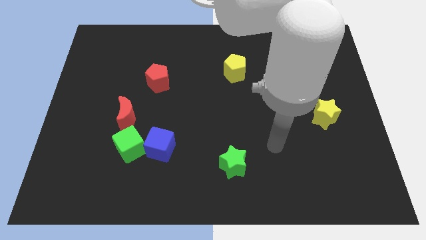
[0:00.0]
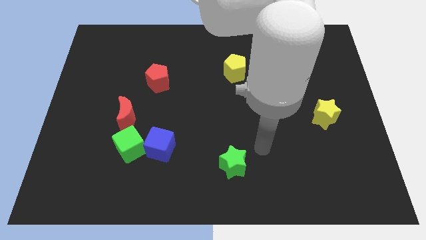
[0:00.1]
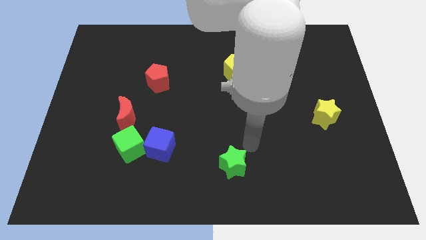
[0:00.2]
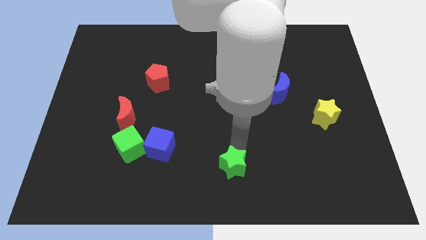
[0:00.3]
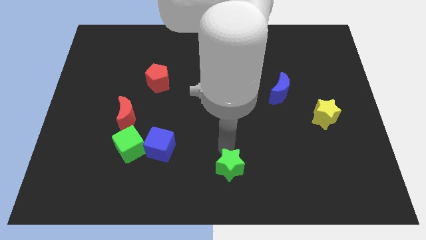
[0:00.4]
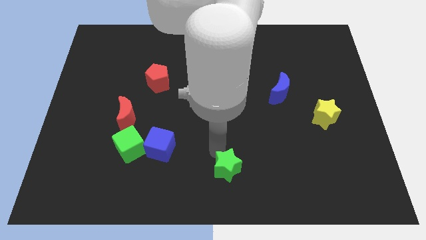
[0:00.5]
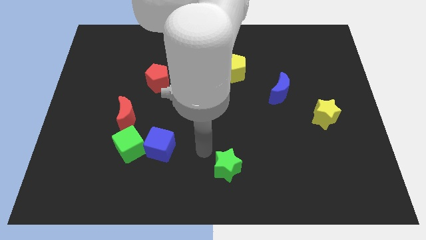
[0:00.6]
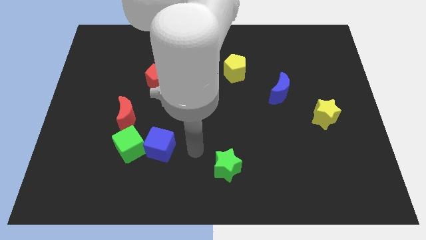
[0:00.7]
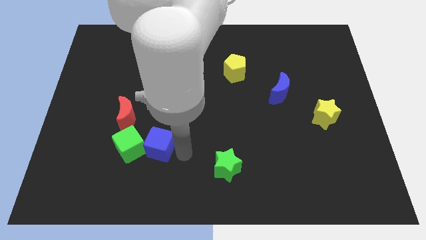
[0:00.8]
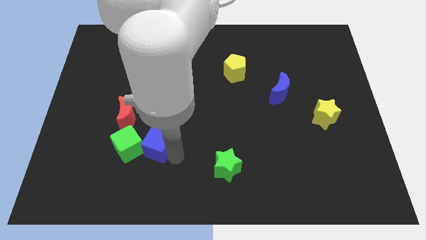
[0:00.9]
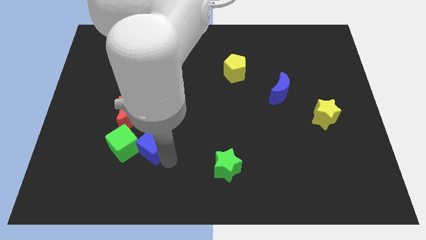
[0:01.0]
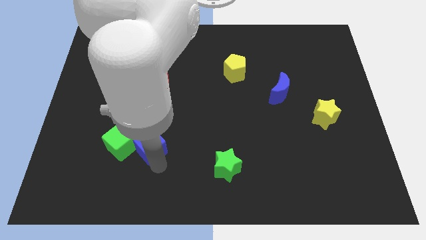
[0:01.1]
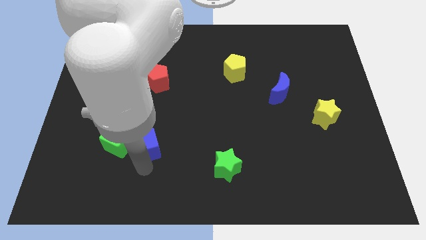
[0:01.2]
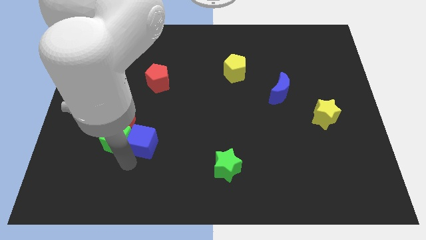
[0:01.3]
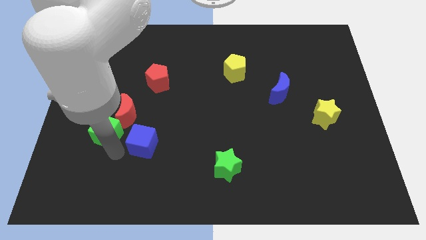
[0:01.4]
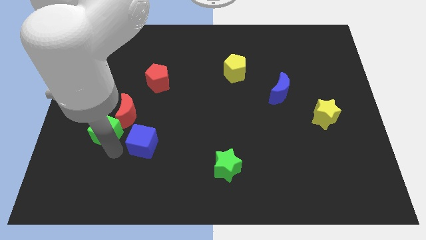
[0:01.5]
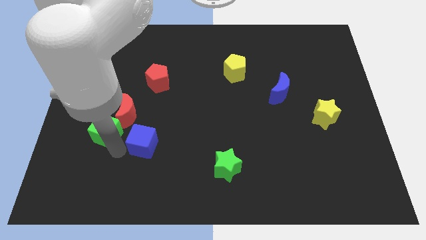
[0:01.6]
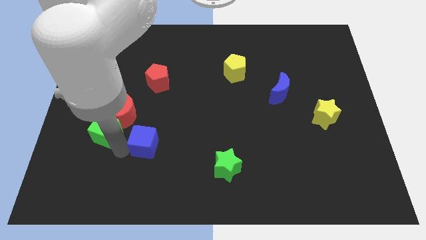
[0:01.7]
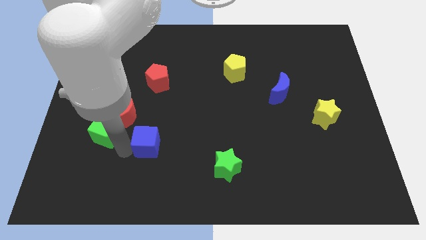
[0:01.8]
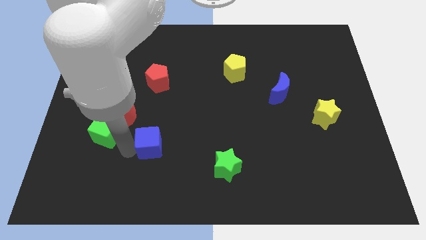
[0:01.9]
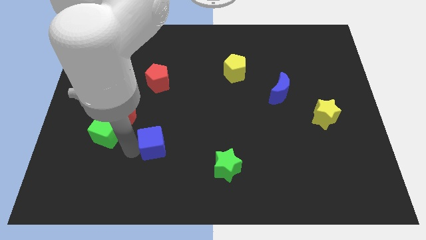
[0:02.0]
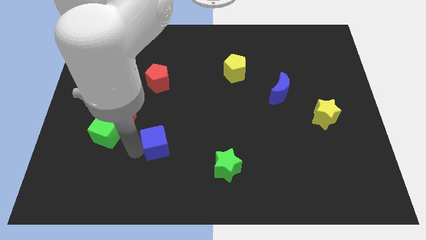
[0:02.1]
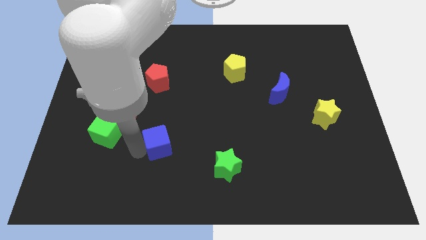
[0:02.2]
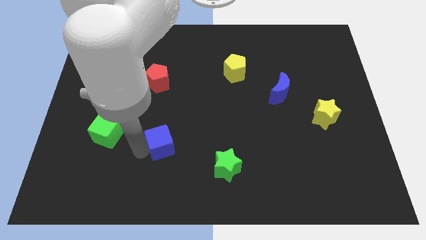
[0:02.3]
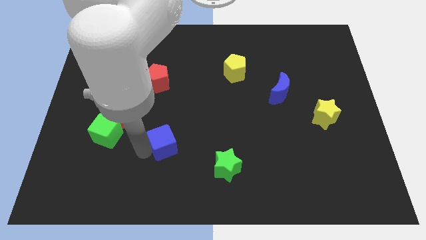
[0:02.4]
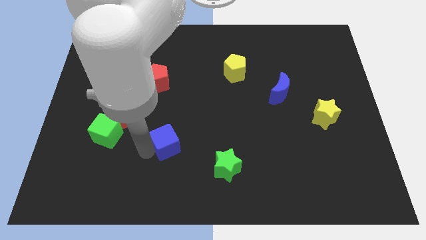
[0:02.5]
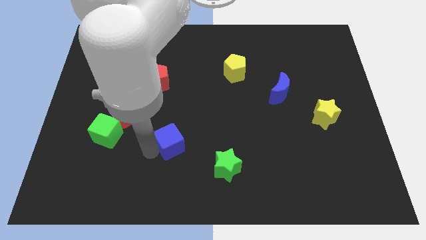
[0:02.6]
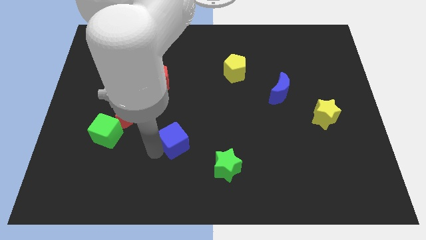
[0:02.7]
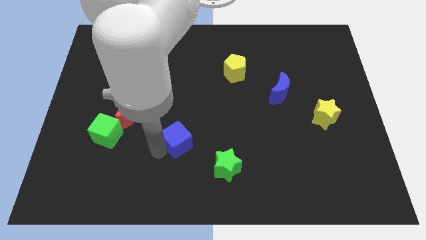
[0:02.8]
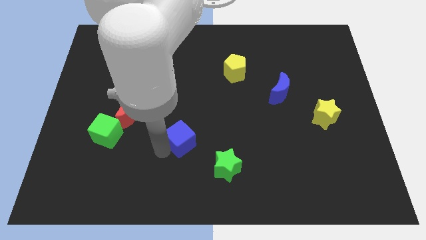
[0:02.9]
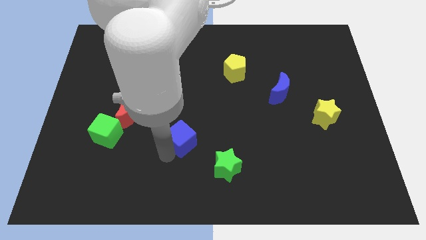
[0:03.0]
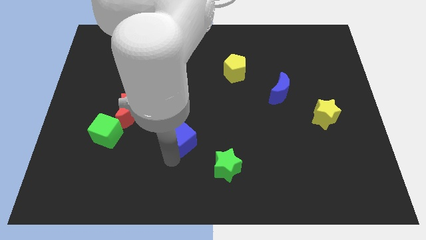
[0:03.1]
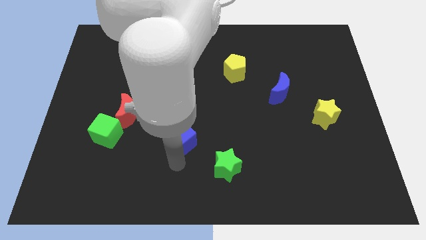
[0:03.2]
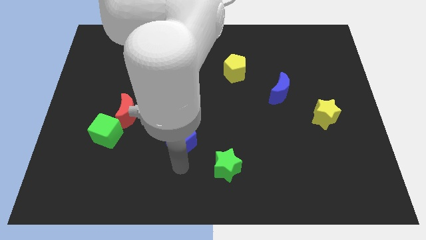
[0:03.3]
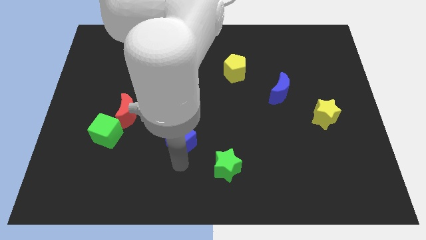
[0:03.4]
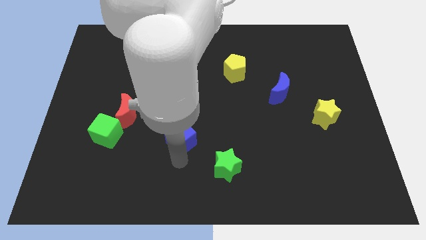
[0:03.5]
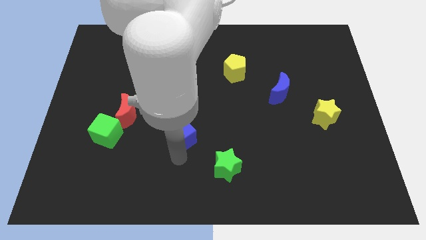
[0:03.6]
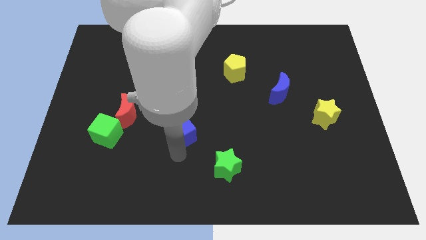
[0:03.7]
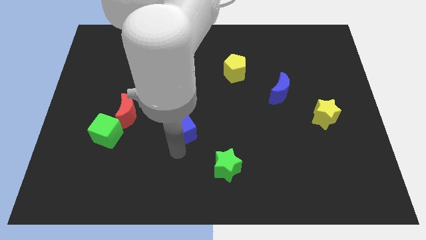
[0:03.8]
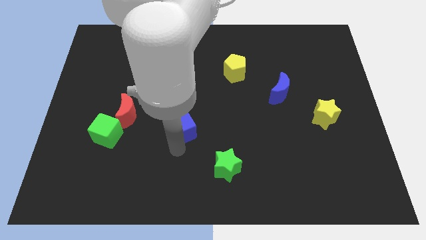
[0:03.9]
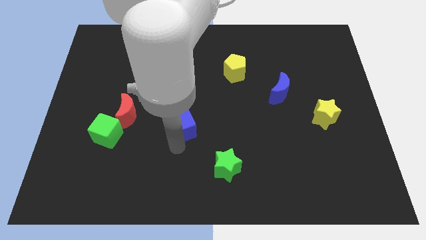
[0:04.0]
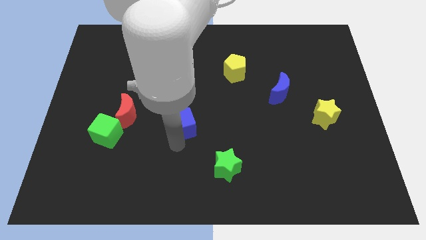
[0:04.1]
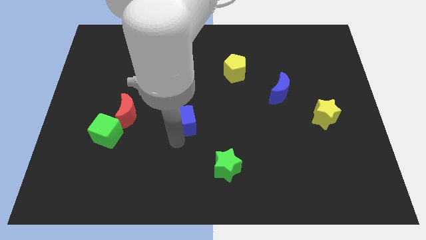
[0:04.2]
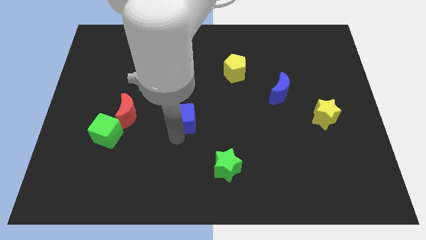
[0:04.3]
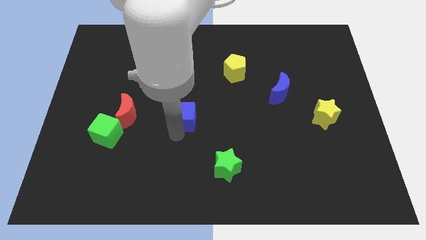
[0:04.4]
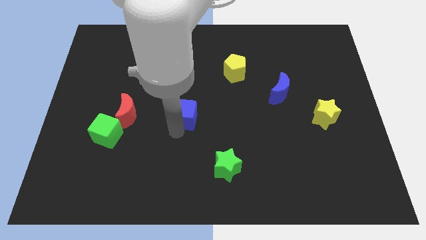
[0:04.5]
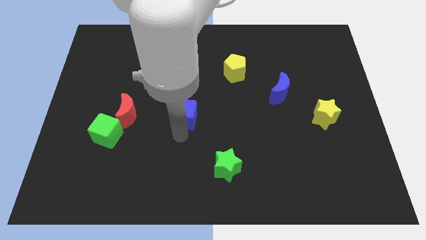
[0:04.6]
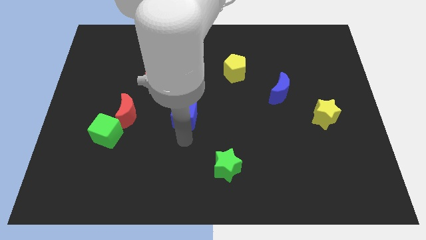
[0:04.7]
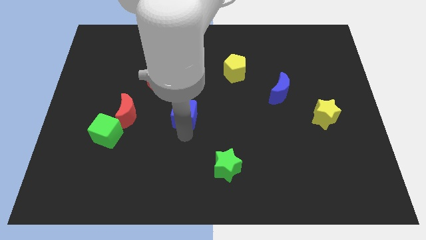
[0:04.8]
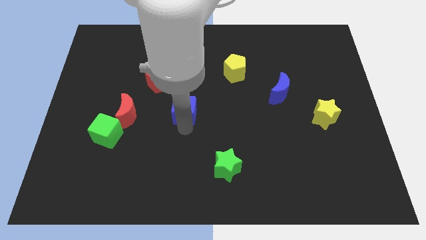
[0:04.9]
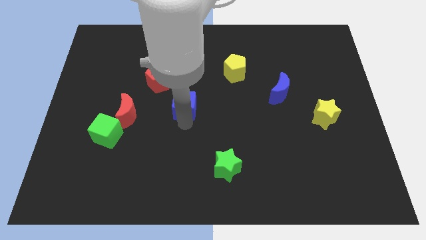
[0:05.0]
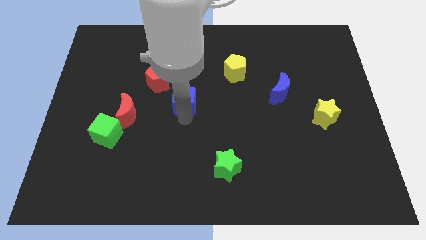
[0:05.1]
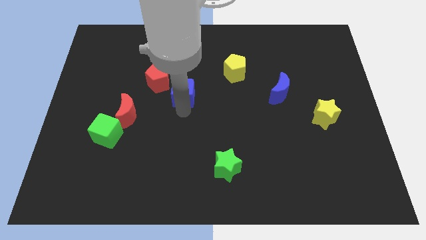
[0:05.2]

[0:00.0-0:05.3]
put the blue cube right of the red pentagon

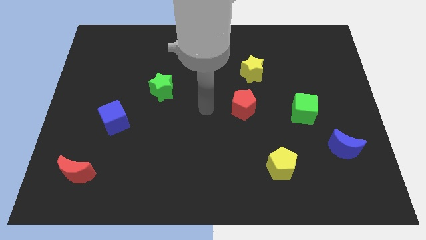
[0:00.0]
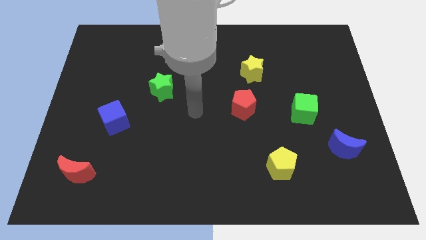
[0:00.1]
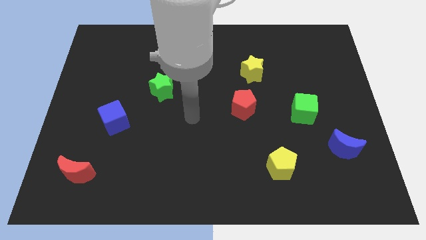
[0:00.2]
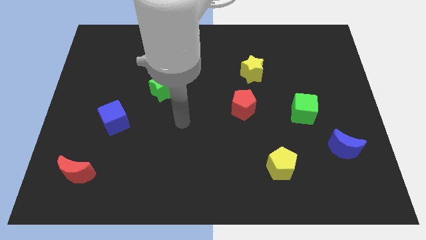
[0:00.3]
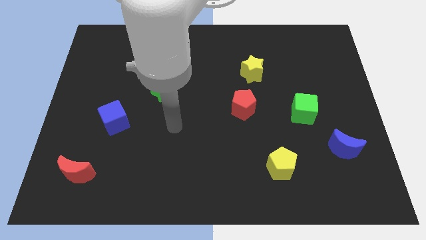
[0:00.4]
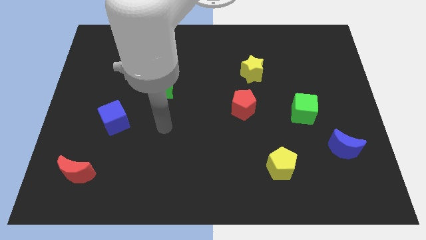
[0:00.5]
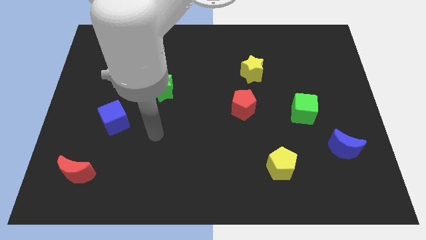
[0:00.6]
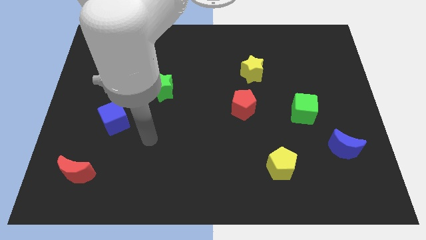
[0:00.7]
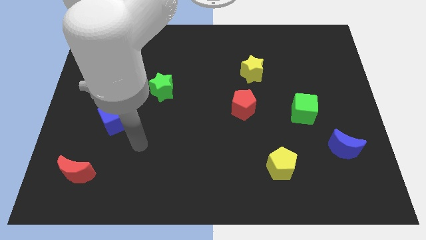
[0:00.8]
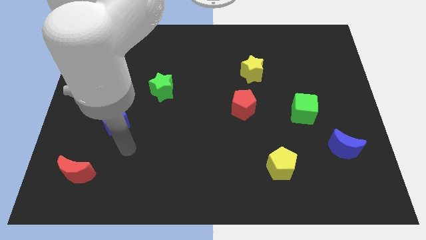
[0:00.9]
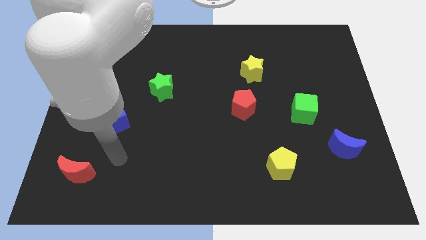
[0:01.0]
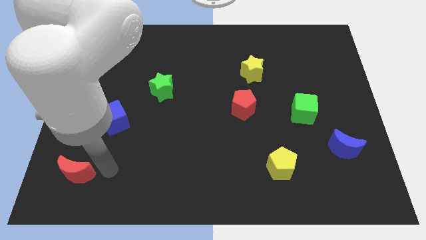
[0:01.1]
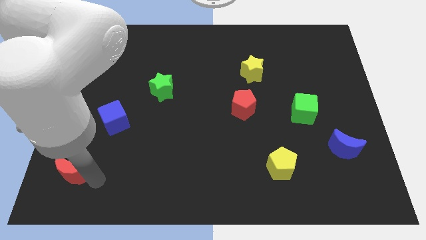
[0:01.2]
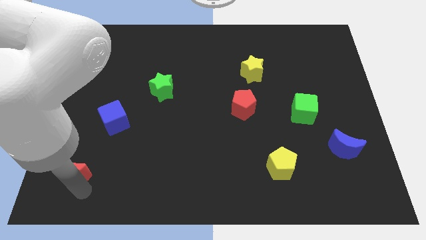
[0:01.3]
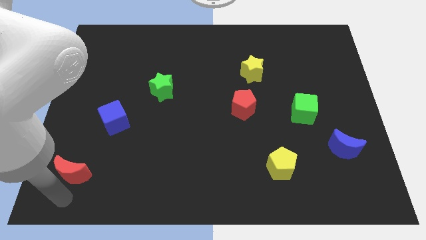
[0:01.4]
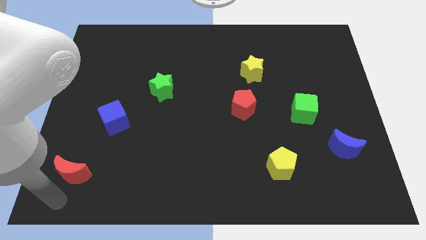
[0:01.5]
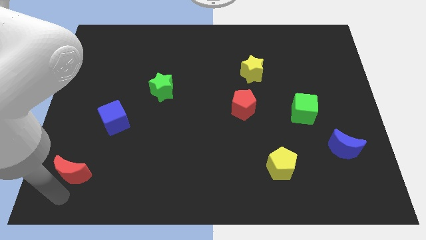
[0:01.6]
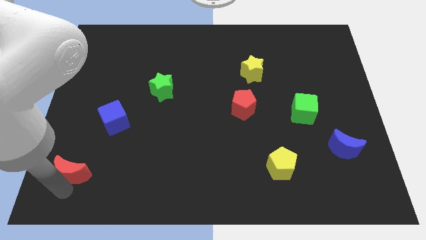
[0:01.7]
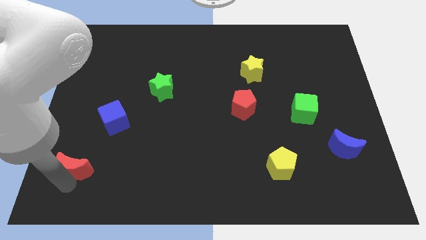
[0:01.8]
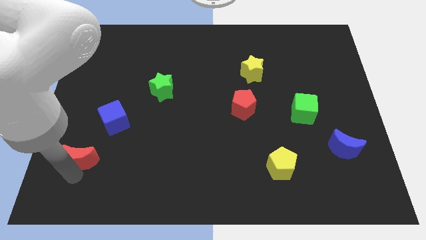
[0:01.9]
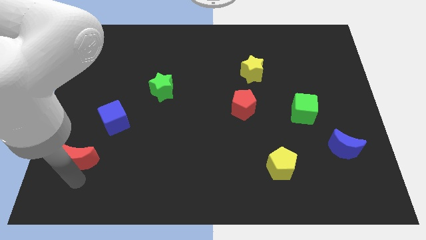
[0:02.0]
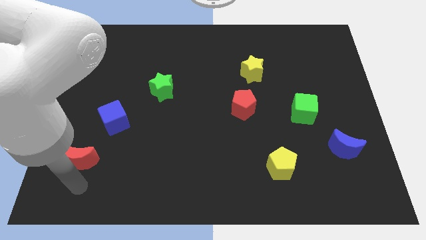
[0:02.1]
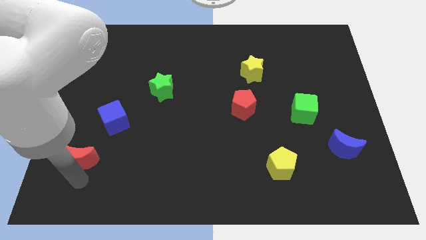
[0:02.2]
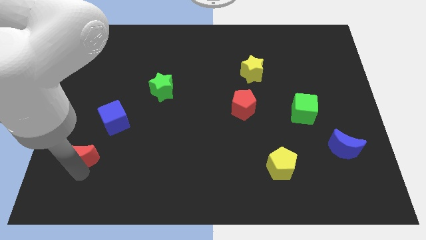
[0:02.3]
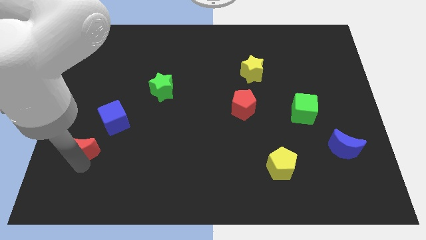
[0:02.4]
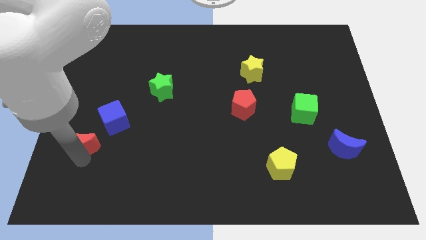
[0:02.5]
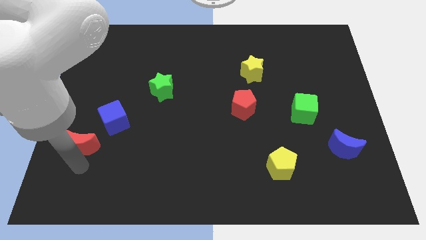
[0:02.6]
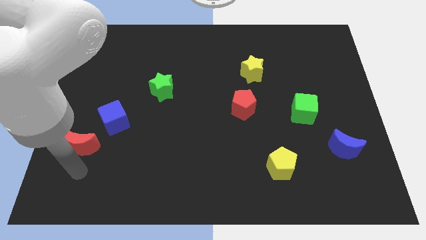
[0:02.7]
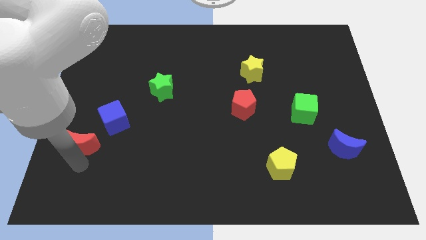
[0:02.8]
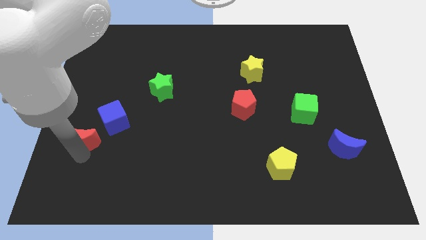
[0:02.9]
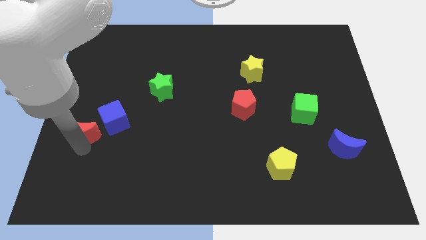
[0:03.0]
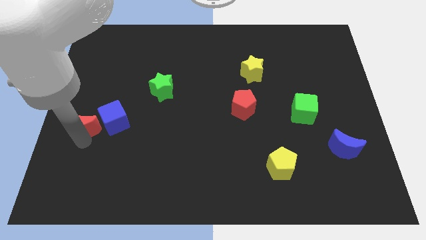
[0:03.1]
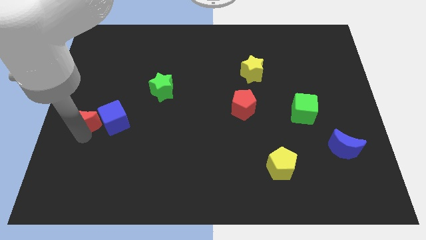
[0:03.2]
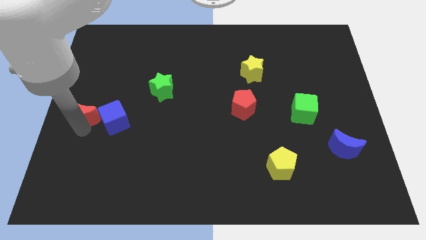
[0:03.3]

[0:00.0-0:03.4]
slide the red moon diagonally up and to the left of the blue cube
